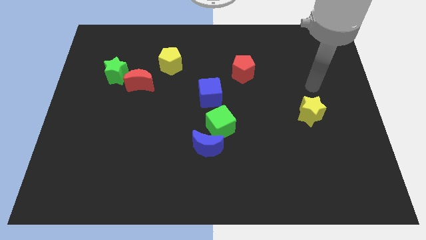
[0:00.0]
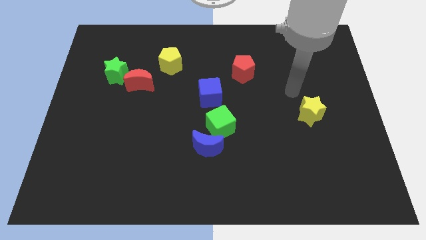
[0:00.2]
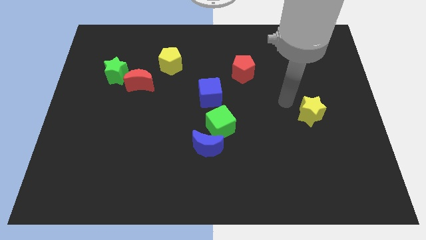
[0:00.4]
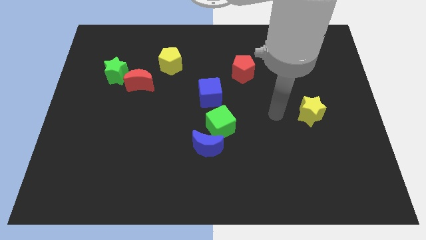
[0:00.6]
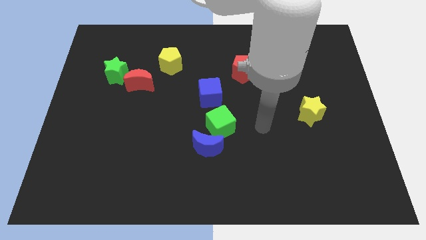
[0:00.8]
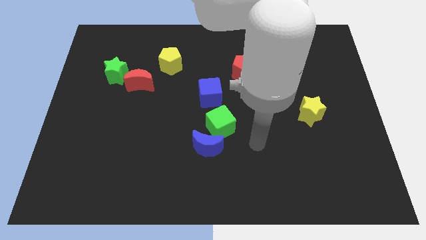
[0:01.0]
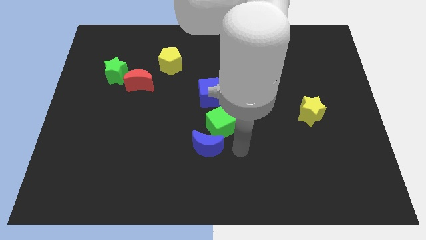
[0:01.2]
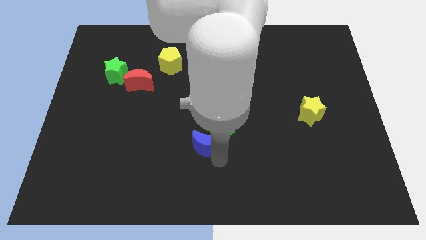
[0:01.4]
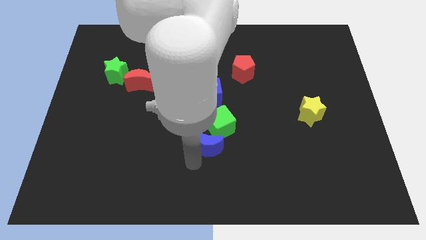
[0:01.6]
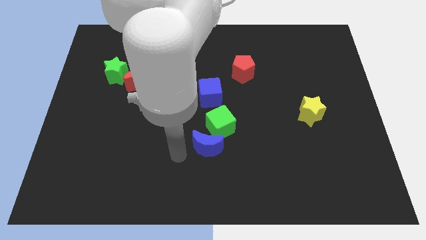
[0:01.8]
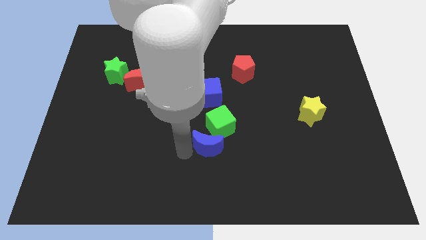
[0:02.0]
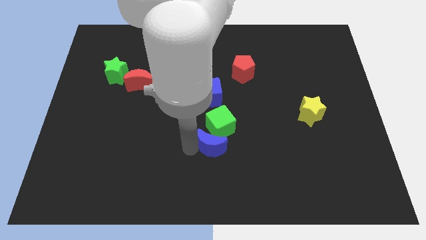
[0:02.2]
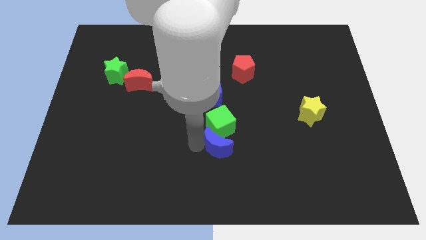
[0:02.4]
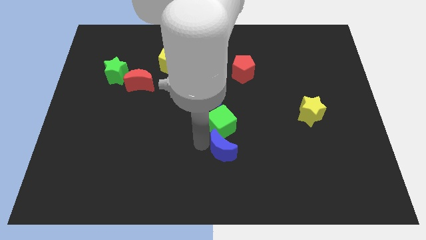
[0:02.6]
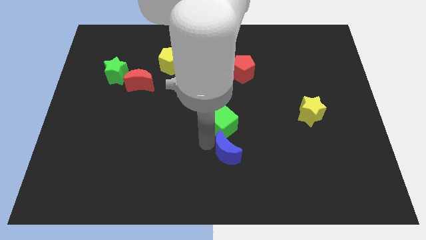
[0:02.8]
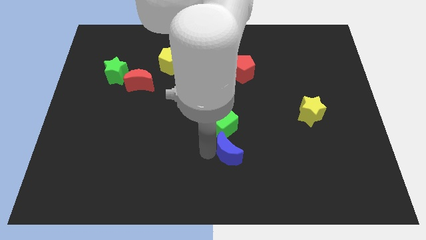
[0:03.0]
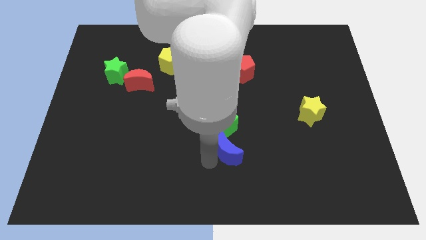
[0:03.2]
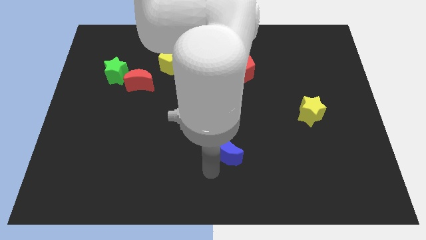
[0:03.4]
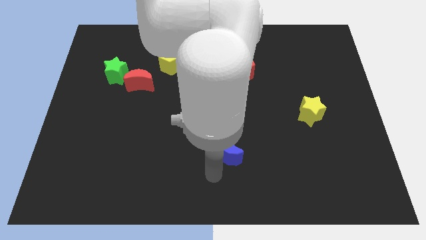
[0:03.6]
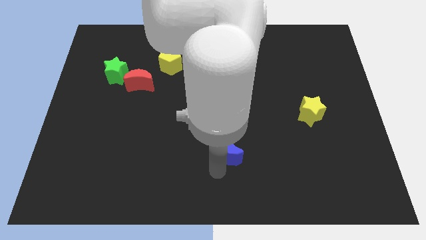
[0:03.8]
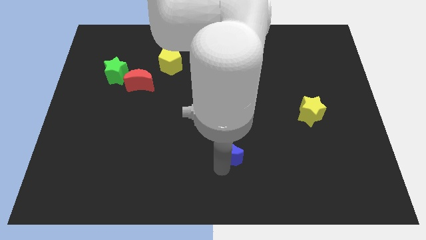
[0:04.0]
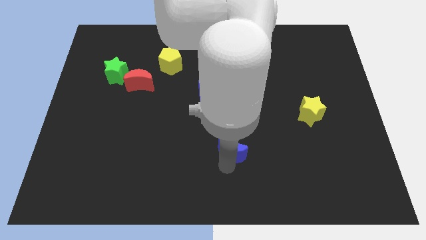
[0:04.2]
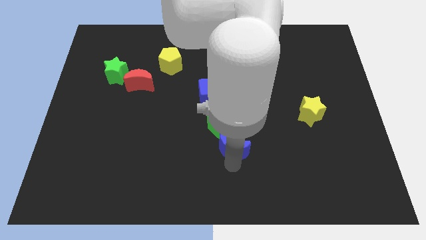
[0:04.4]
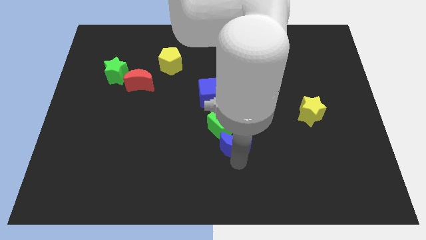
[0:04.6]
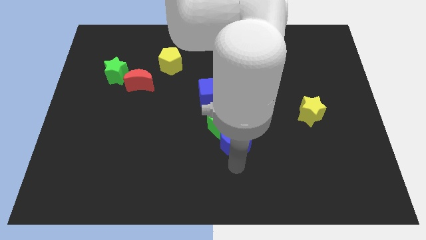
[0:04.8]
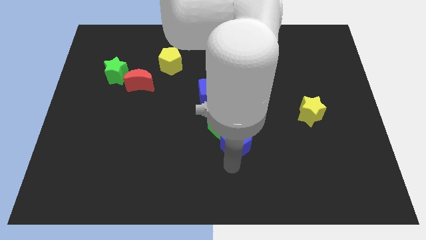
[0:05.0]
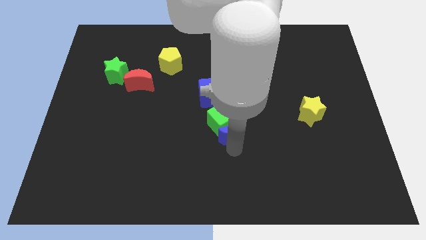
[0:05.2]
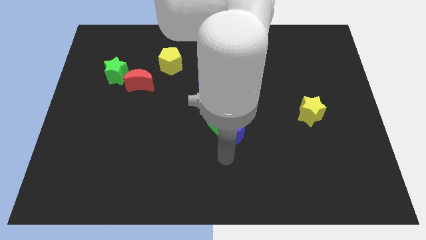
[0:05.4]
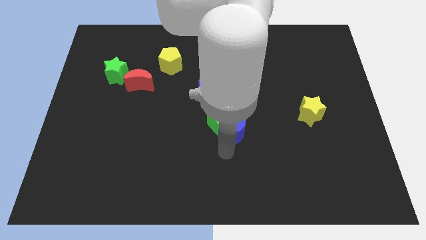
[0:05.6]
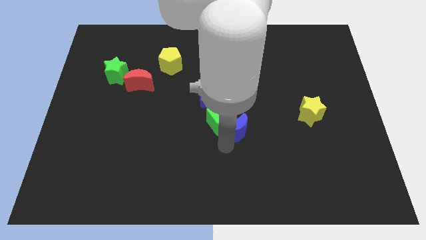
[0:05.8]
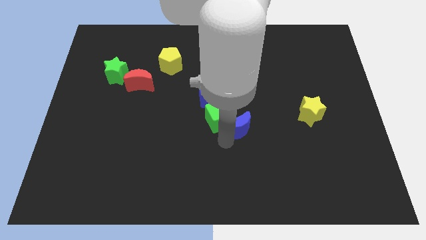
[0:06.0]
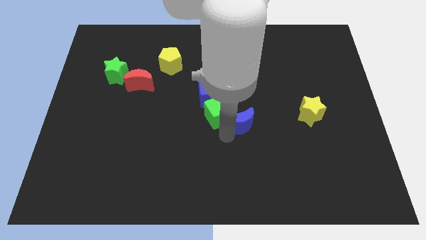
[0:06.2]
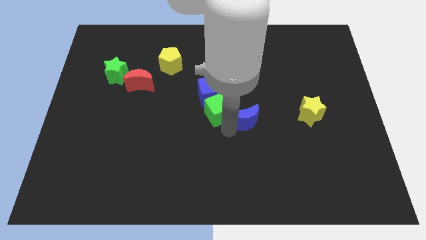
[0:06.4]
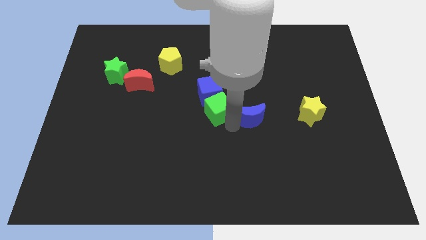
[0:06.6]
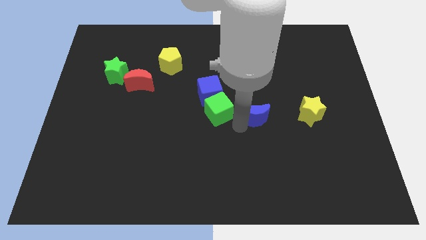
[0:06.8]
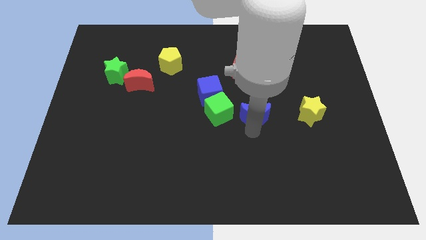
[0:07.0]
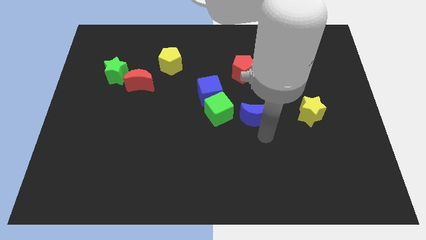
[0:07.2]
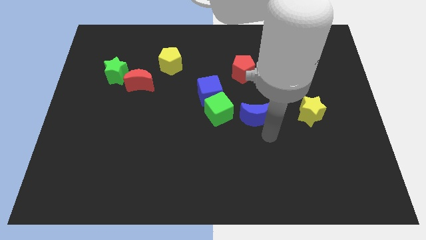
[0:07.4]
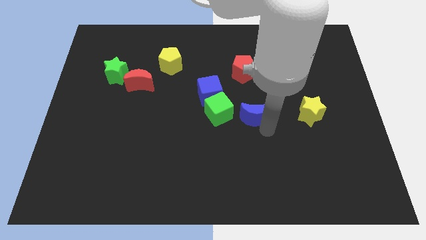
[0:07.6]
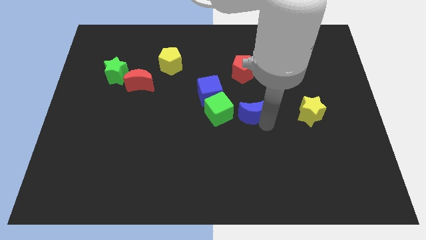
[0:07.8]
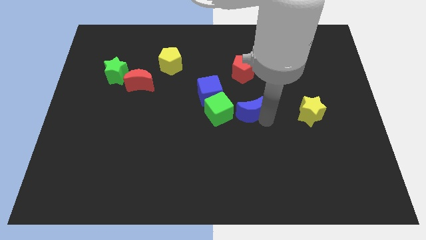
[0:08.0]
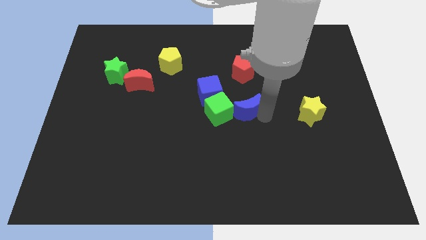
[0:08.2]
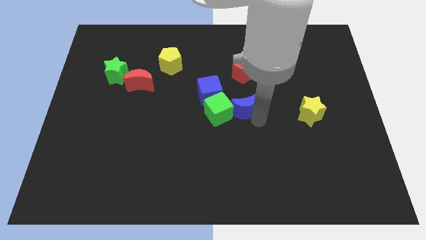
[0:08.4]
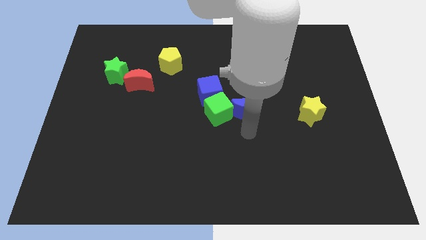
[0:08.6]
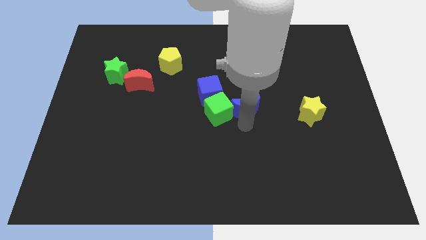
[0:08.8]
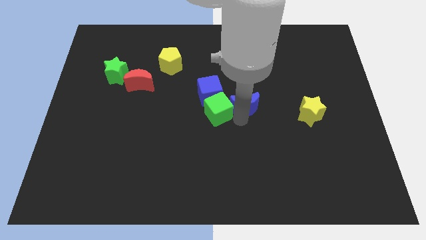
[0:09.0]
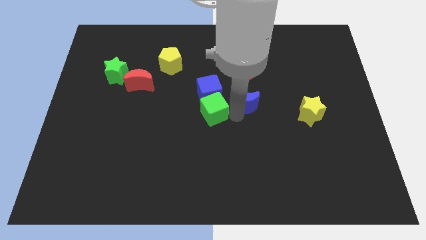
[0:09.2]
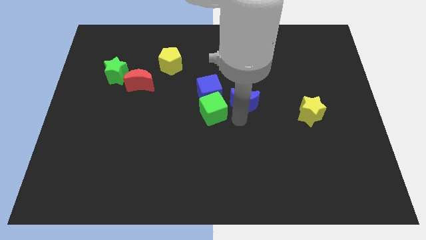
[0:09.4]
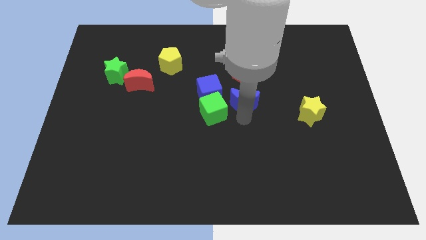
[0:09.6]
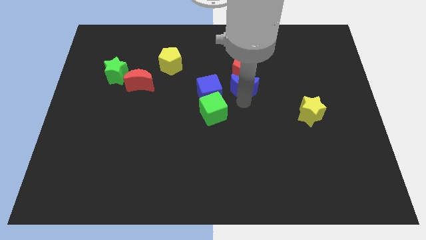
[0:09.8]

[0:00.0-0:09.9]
push the blue moon close to the red pentagon

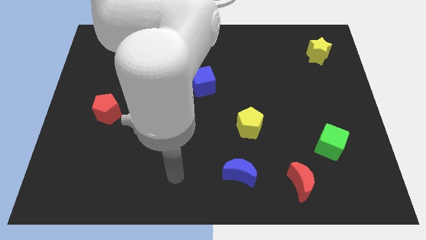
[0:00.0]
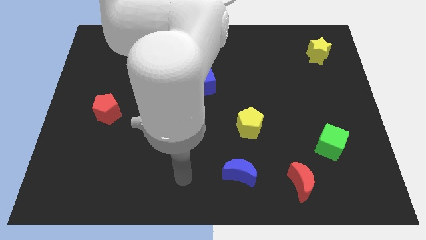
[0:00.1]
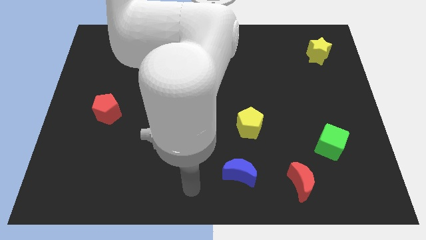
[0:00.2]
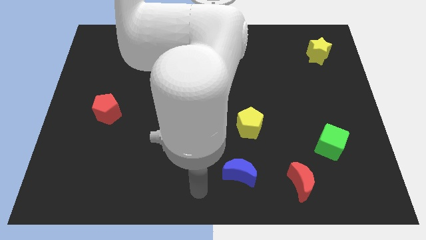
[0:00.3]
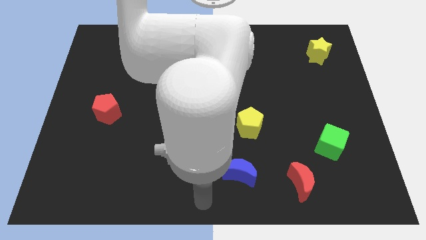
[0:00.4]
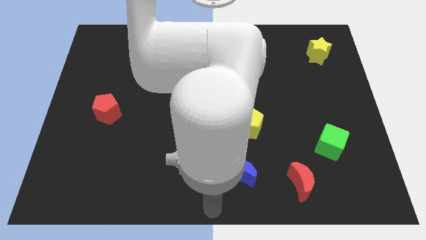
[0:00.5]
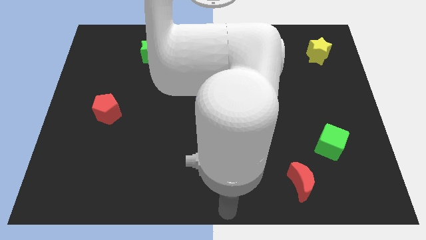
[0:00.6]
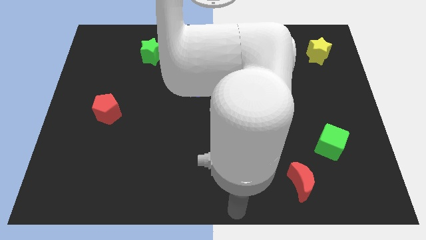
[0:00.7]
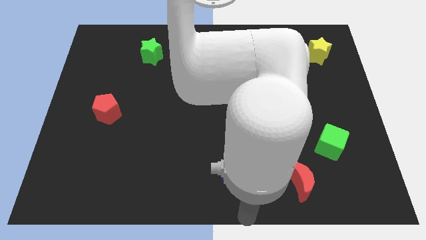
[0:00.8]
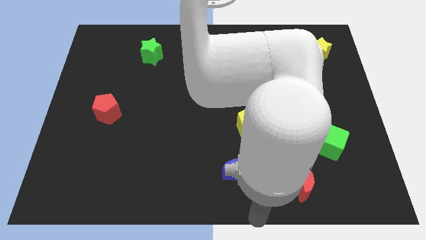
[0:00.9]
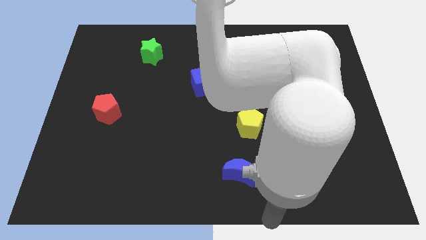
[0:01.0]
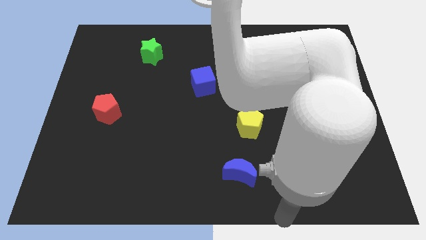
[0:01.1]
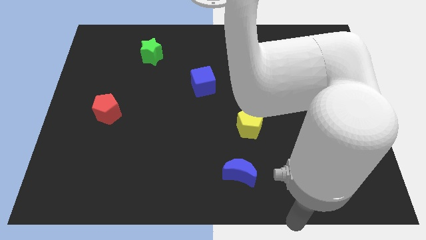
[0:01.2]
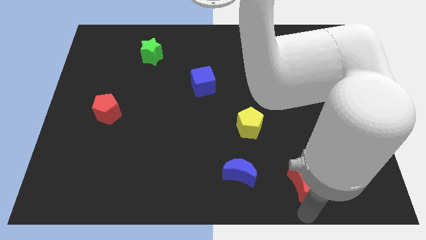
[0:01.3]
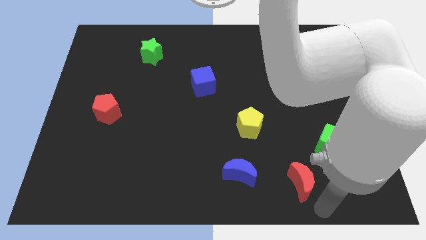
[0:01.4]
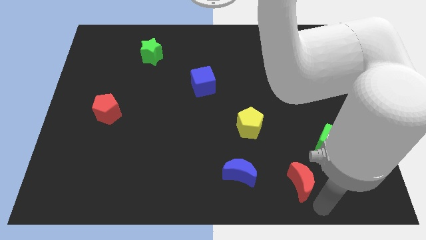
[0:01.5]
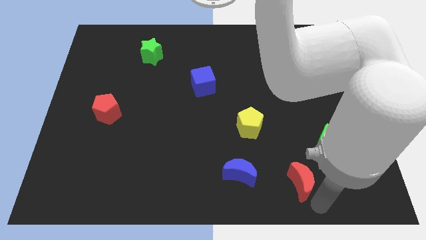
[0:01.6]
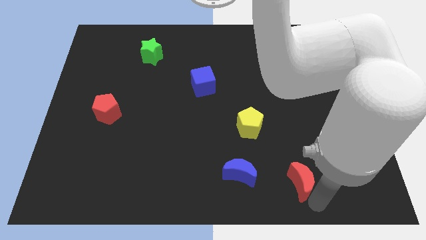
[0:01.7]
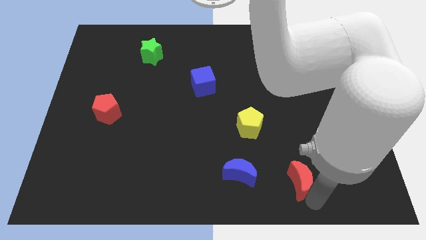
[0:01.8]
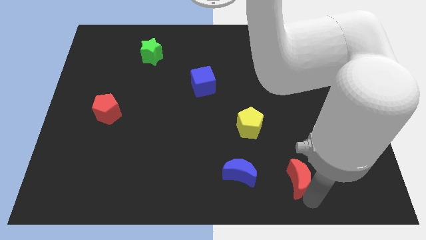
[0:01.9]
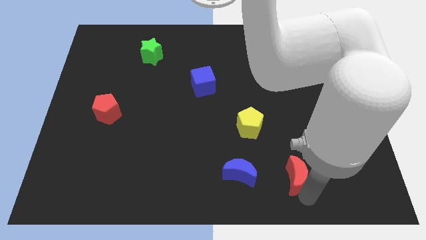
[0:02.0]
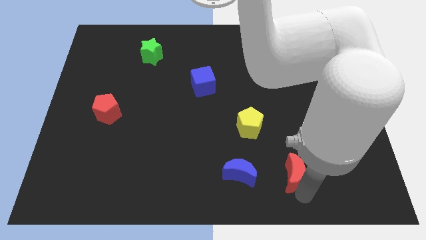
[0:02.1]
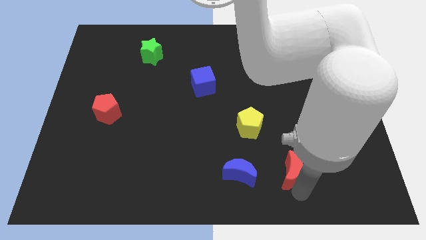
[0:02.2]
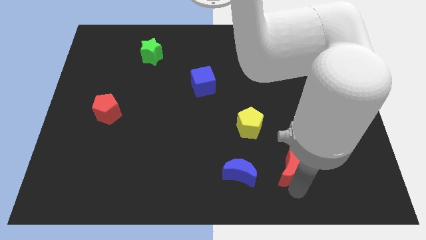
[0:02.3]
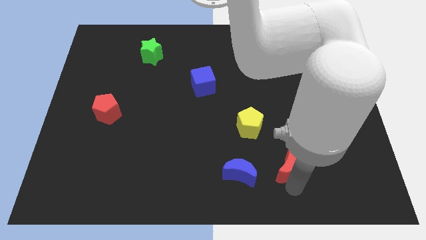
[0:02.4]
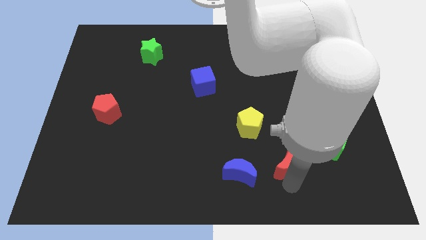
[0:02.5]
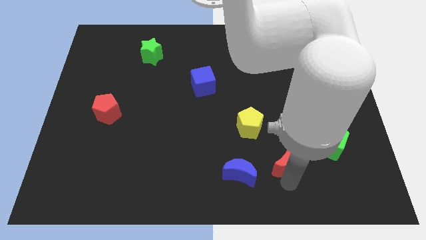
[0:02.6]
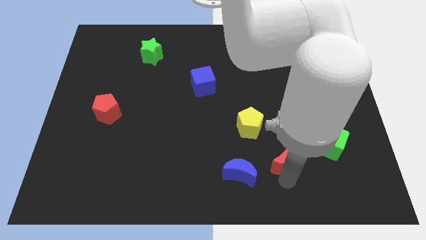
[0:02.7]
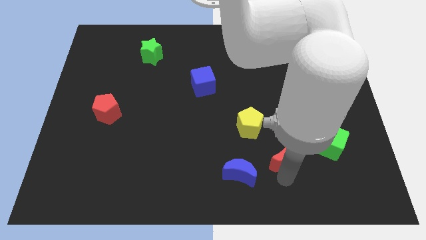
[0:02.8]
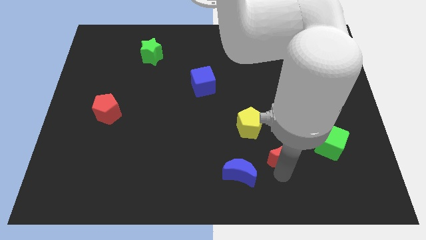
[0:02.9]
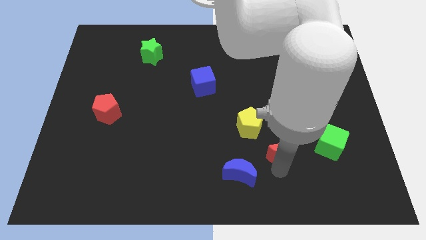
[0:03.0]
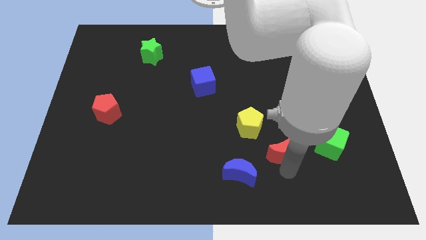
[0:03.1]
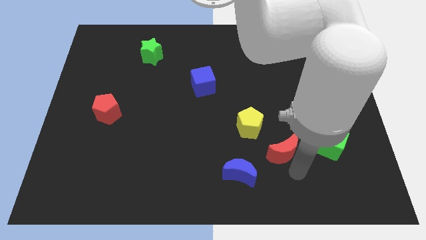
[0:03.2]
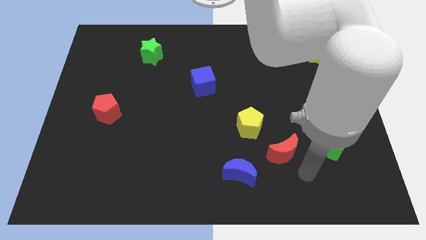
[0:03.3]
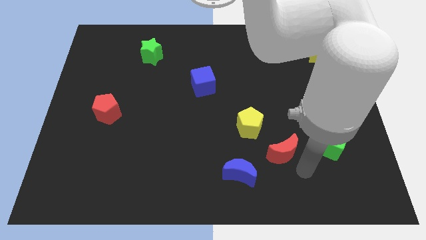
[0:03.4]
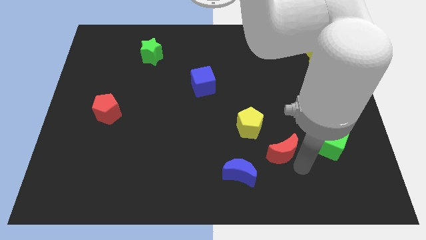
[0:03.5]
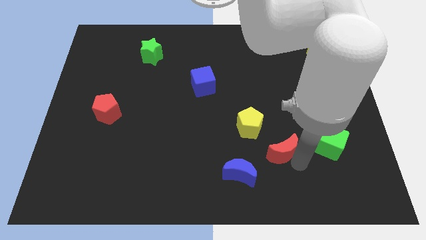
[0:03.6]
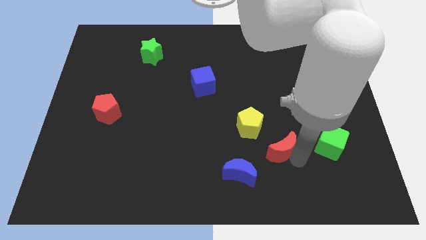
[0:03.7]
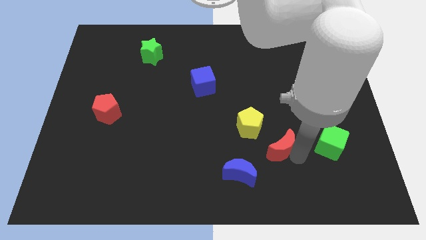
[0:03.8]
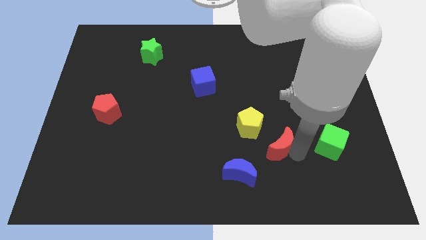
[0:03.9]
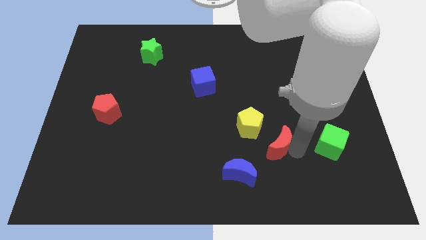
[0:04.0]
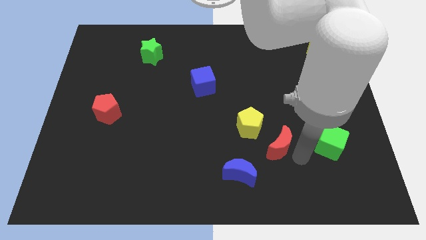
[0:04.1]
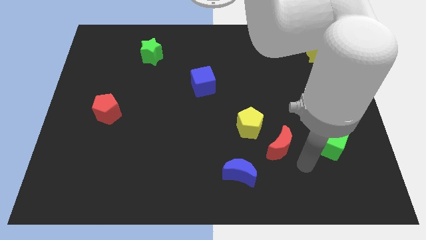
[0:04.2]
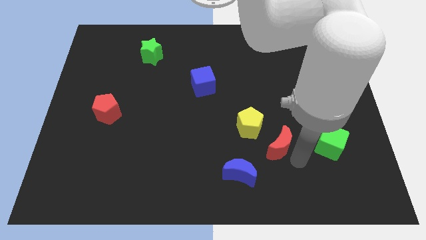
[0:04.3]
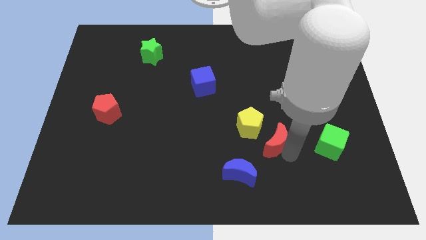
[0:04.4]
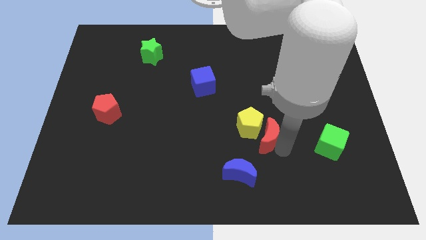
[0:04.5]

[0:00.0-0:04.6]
push the red moon next to the yellow pentagon
